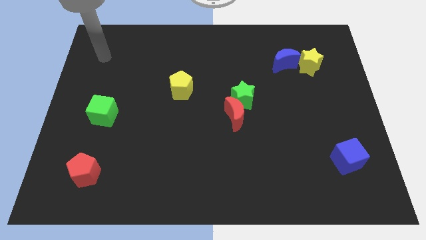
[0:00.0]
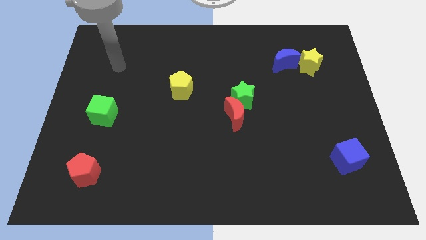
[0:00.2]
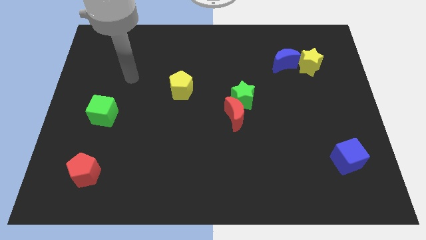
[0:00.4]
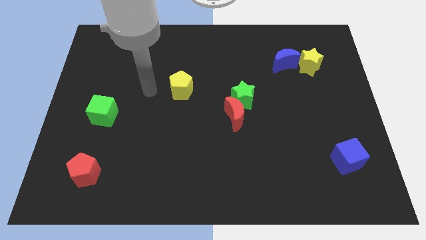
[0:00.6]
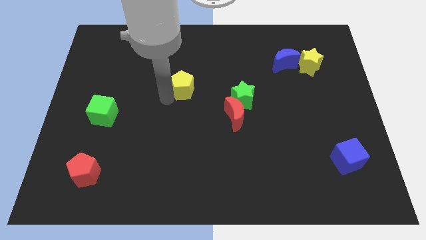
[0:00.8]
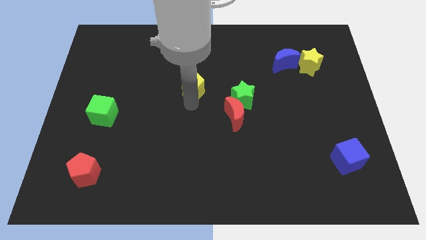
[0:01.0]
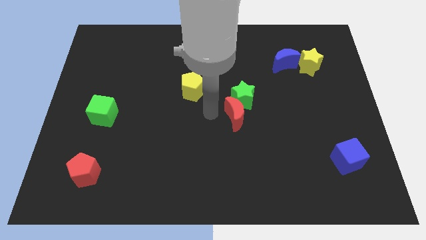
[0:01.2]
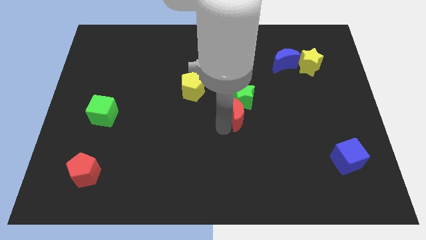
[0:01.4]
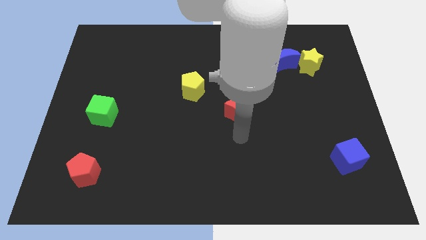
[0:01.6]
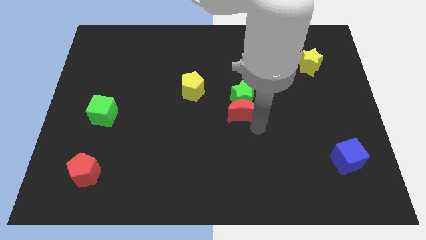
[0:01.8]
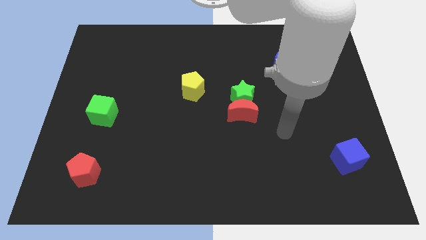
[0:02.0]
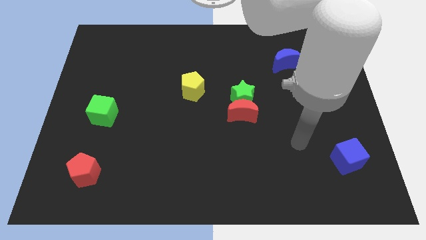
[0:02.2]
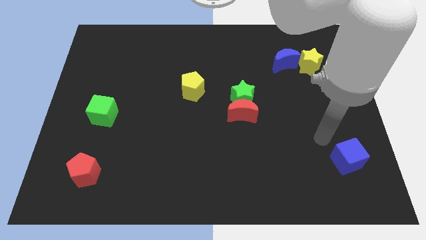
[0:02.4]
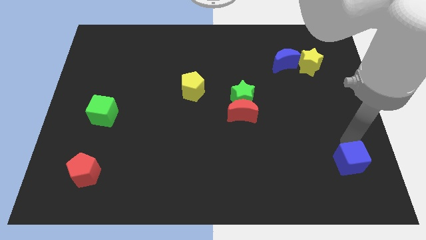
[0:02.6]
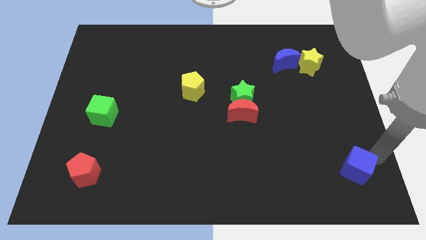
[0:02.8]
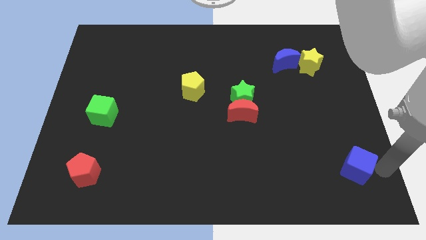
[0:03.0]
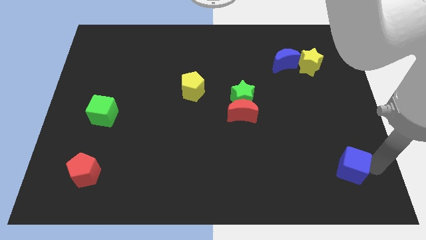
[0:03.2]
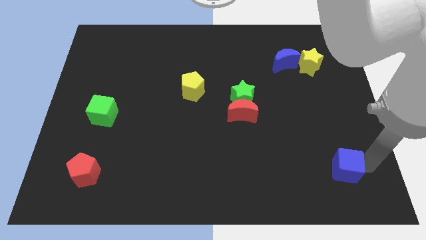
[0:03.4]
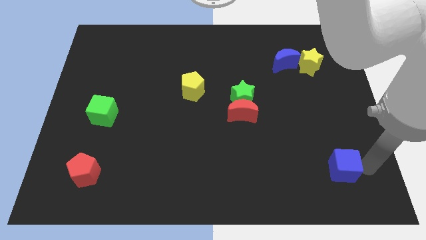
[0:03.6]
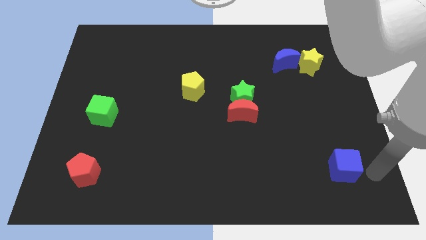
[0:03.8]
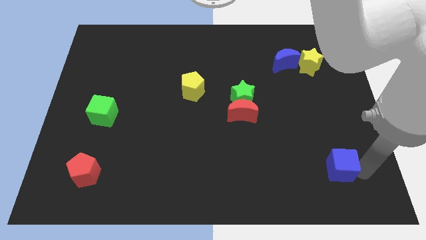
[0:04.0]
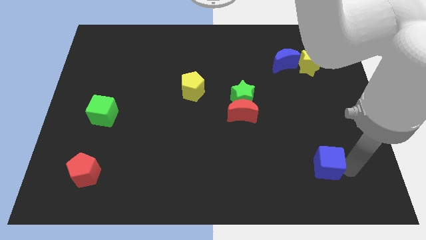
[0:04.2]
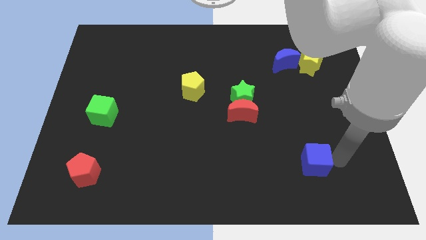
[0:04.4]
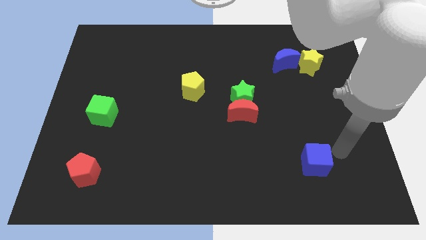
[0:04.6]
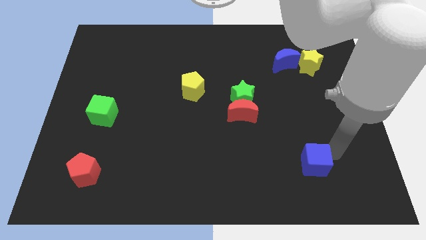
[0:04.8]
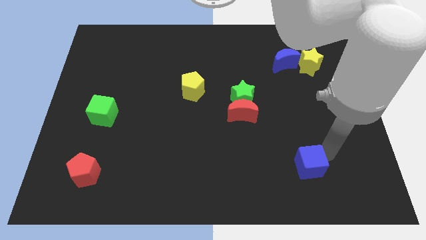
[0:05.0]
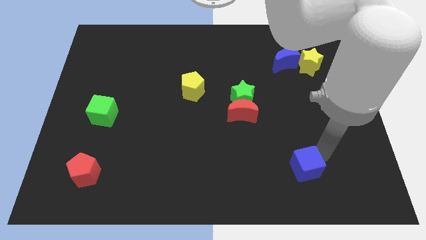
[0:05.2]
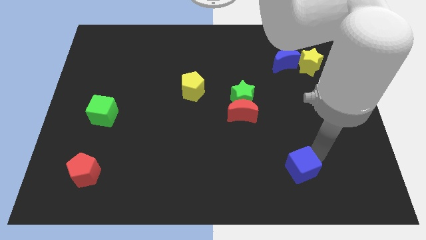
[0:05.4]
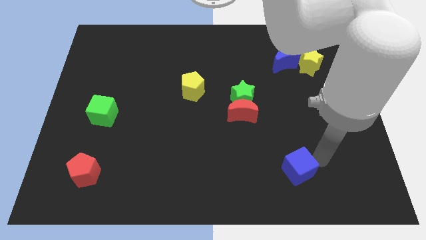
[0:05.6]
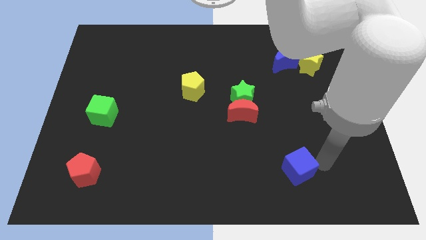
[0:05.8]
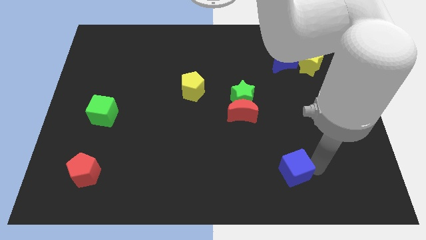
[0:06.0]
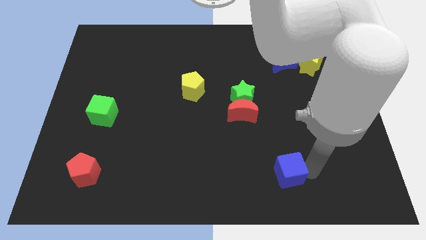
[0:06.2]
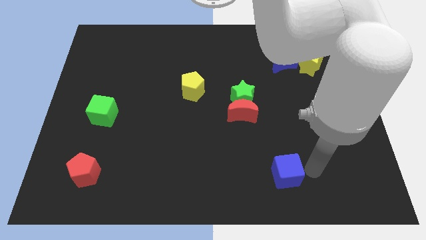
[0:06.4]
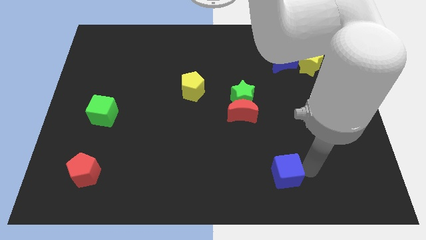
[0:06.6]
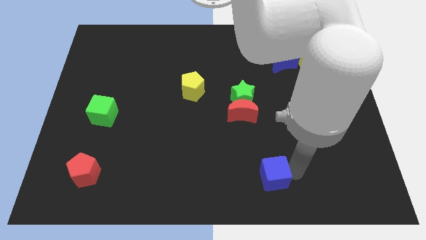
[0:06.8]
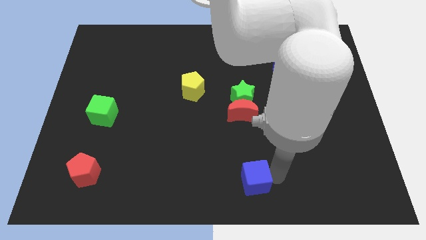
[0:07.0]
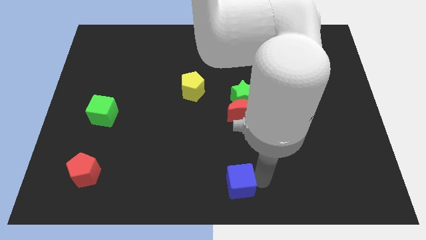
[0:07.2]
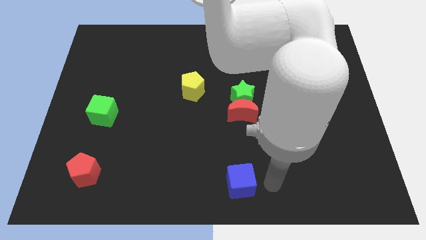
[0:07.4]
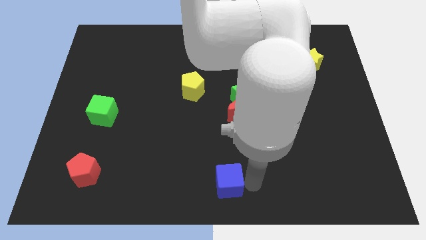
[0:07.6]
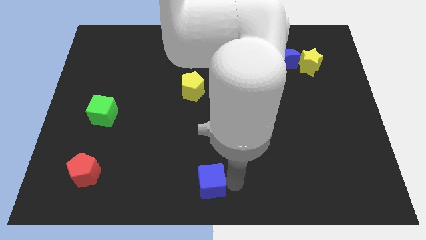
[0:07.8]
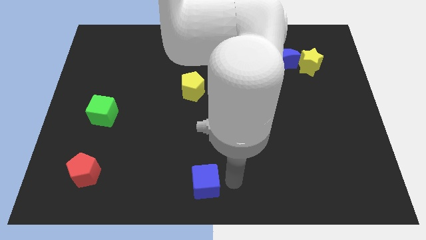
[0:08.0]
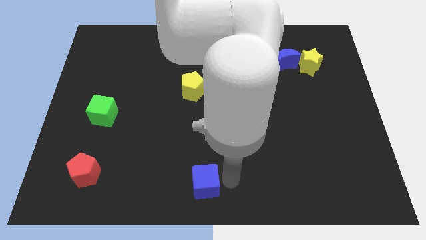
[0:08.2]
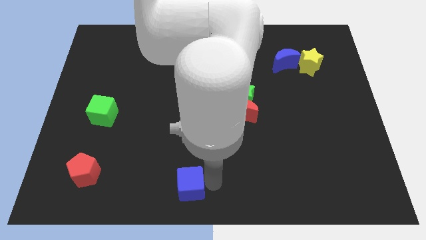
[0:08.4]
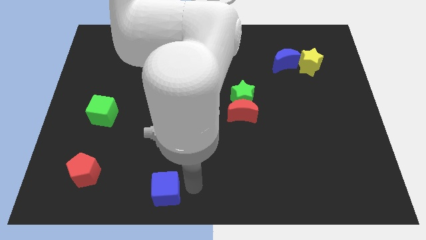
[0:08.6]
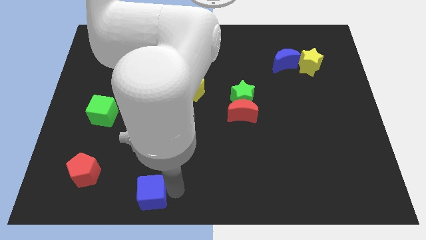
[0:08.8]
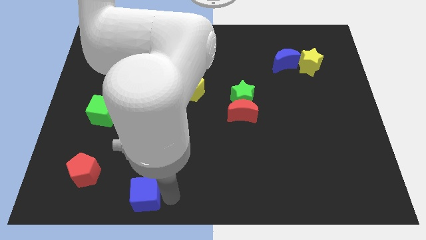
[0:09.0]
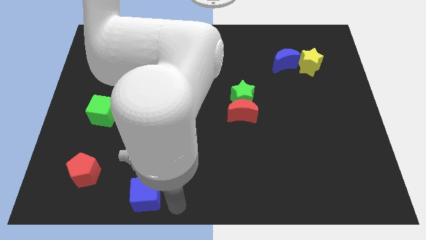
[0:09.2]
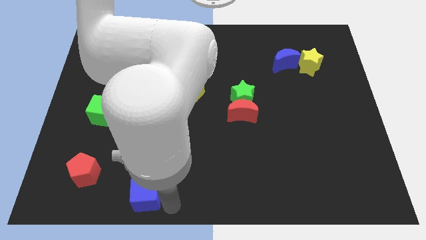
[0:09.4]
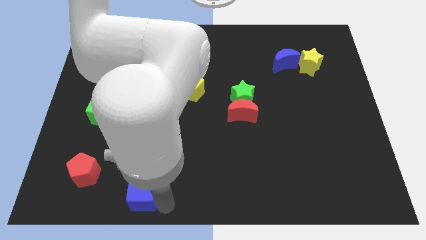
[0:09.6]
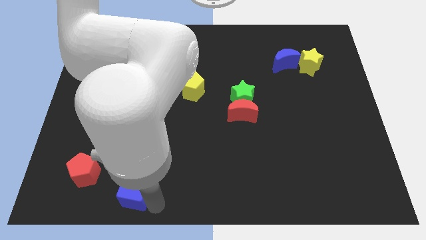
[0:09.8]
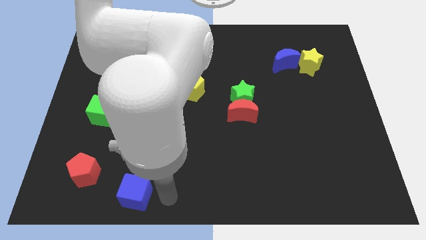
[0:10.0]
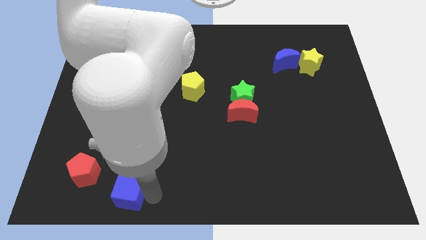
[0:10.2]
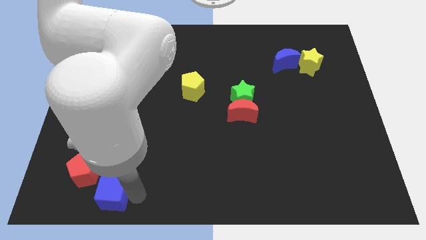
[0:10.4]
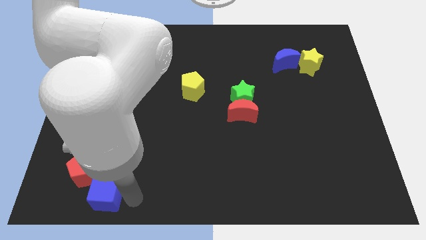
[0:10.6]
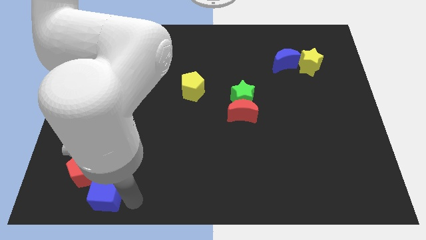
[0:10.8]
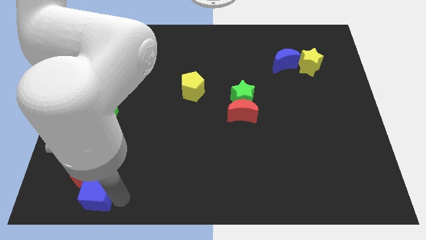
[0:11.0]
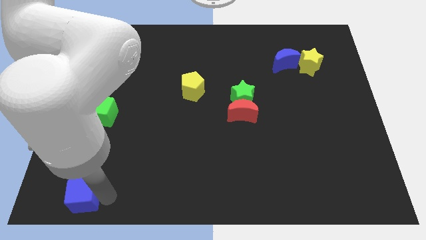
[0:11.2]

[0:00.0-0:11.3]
push the blue cube to the bottom left

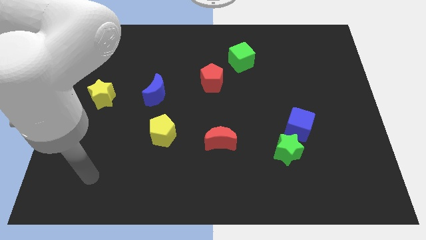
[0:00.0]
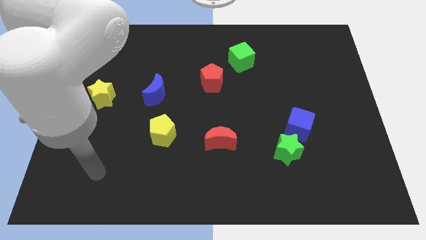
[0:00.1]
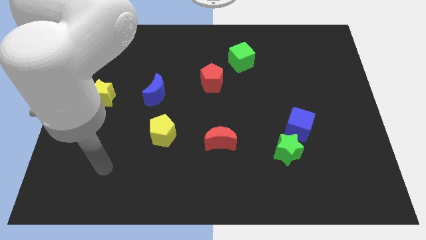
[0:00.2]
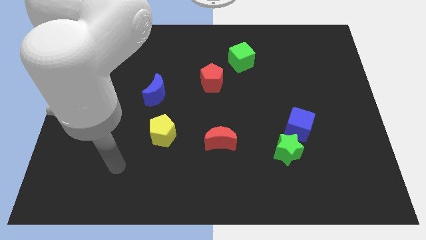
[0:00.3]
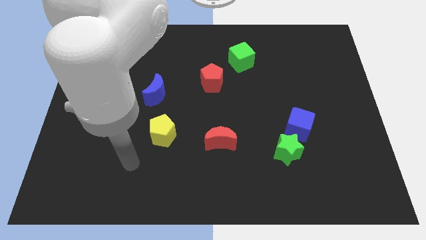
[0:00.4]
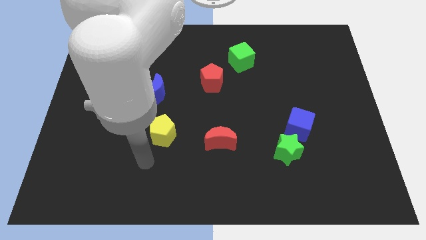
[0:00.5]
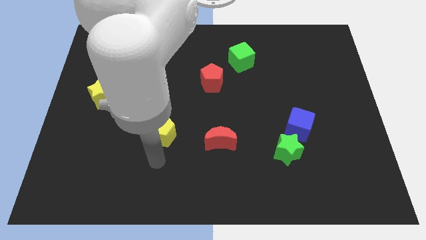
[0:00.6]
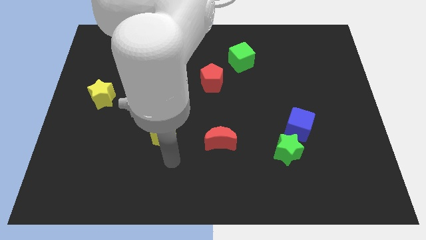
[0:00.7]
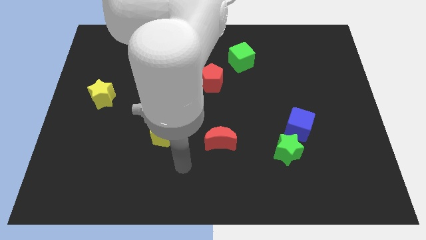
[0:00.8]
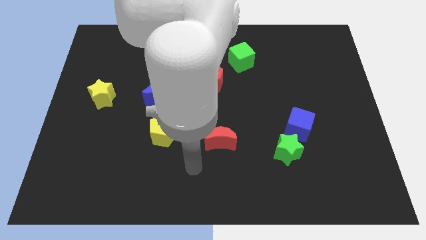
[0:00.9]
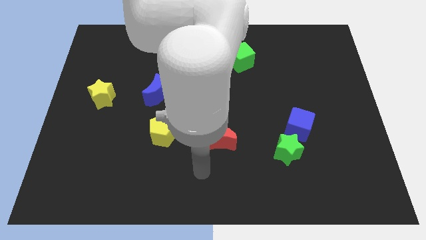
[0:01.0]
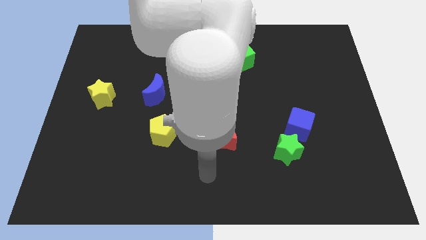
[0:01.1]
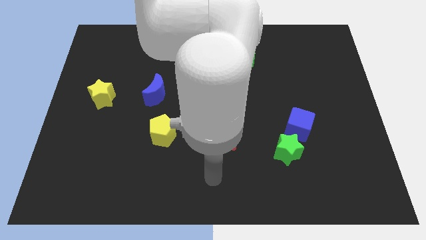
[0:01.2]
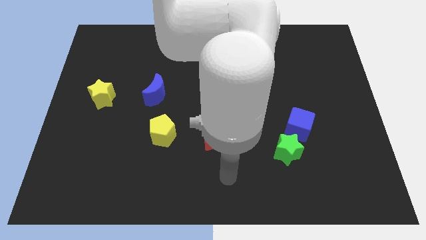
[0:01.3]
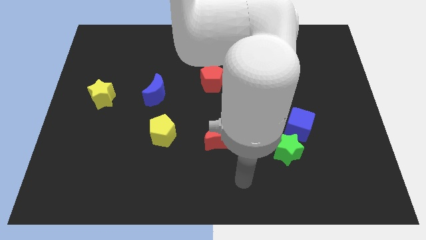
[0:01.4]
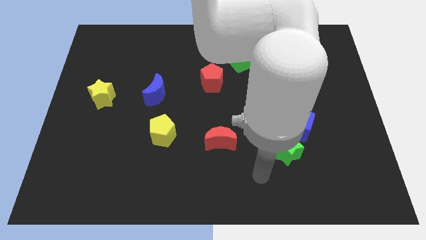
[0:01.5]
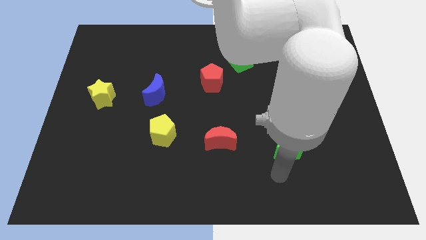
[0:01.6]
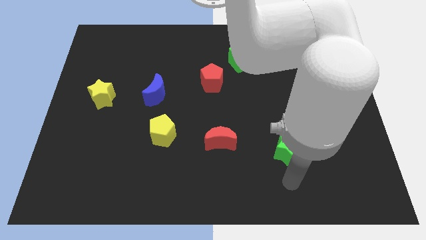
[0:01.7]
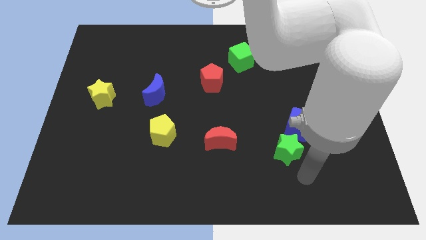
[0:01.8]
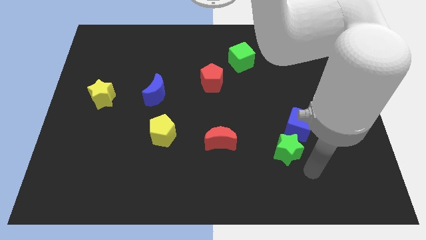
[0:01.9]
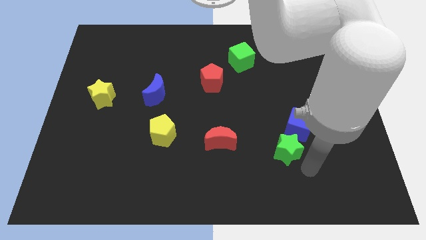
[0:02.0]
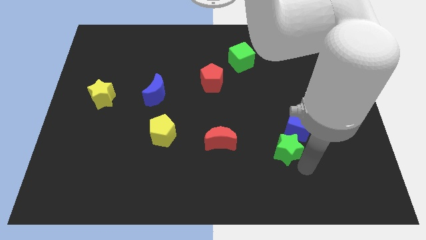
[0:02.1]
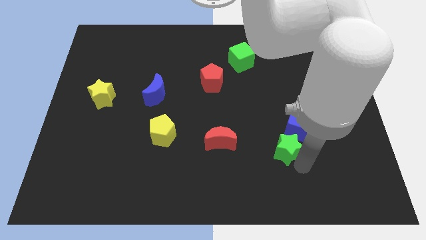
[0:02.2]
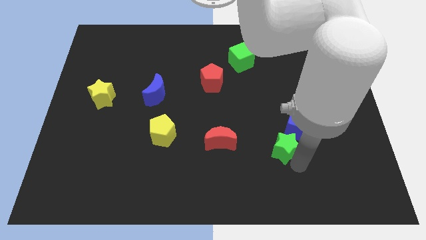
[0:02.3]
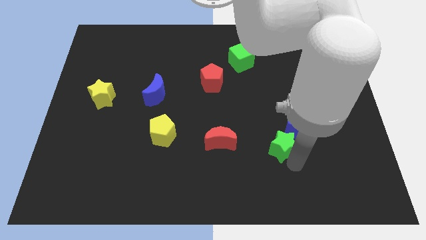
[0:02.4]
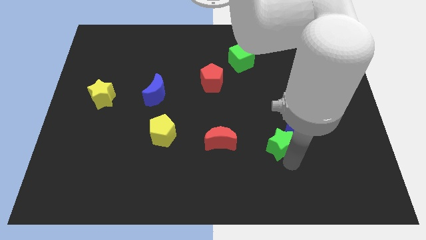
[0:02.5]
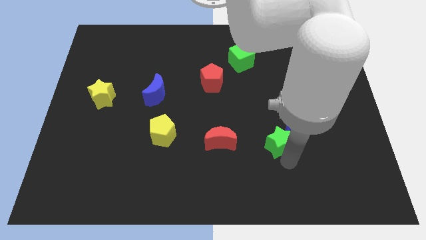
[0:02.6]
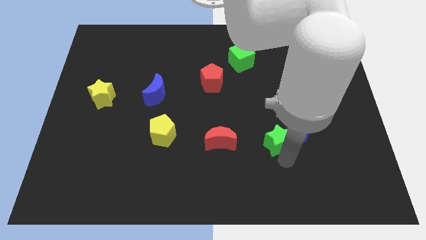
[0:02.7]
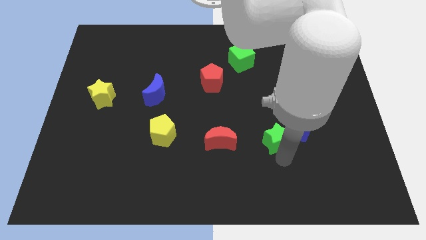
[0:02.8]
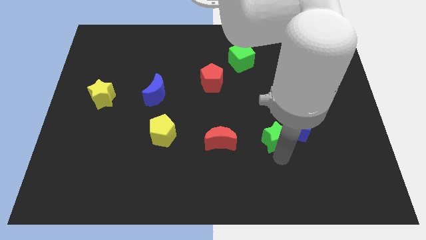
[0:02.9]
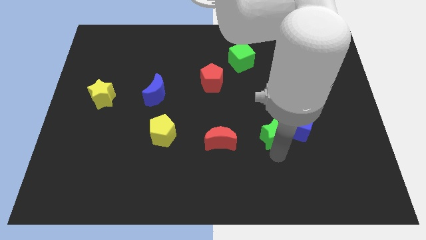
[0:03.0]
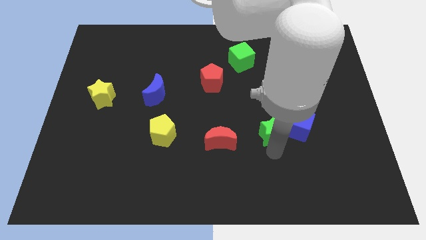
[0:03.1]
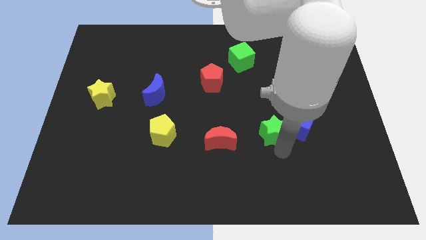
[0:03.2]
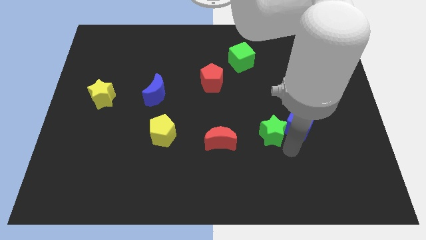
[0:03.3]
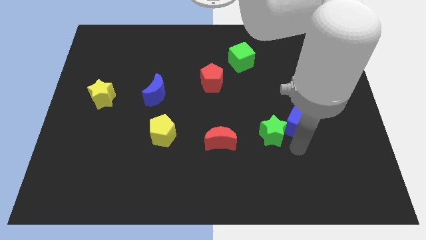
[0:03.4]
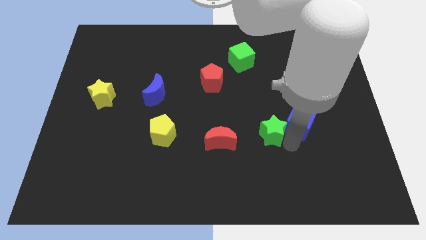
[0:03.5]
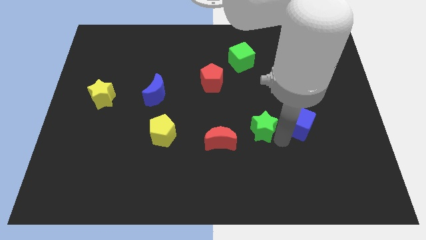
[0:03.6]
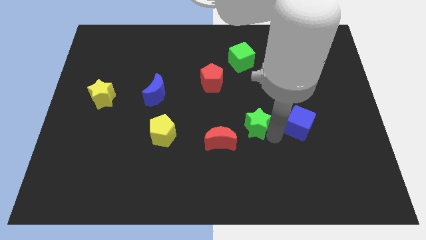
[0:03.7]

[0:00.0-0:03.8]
push the green star to the center
